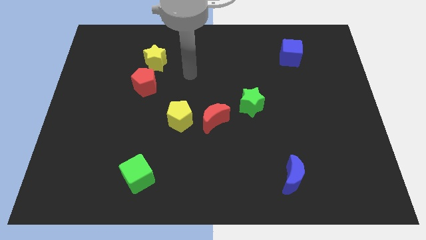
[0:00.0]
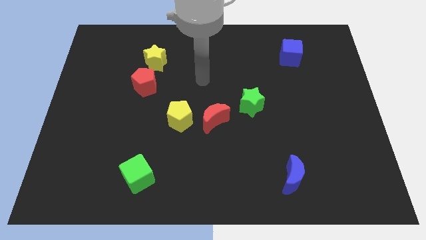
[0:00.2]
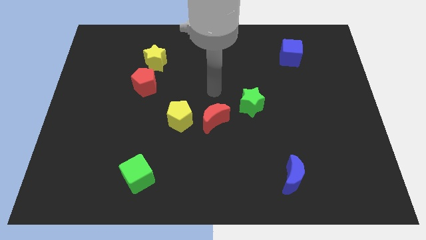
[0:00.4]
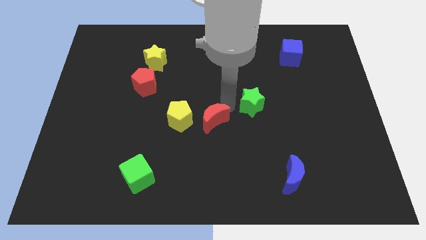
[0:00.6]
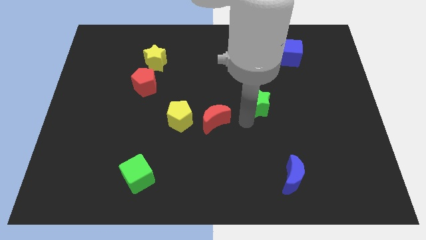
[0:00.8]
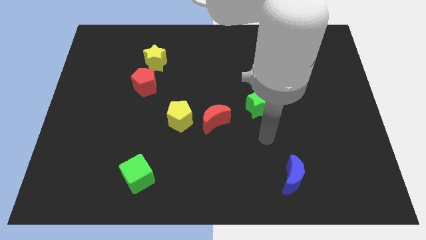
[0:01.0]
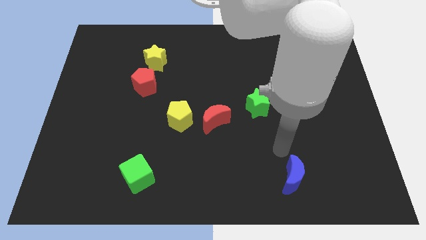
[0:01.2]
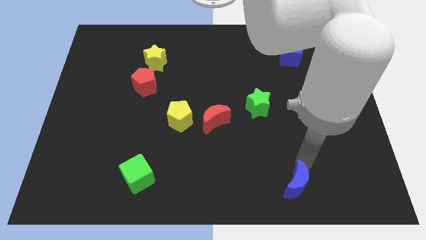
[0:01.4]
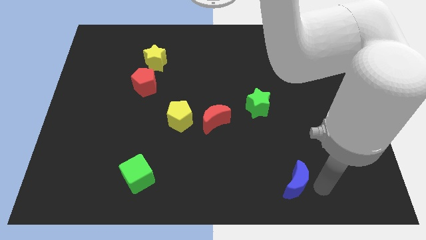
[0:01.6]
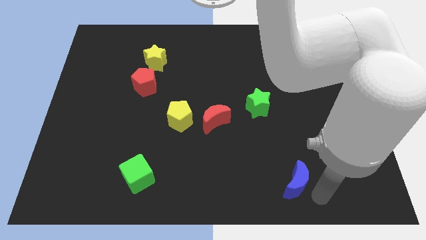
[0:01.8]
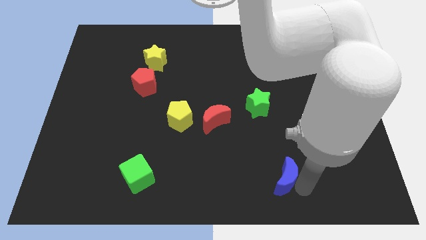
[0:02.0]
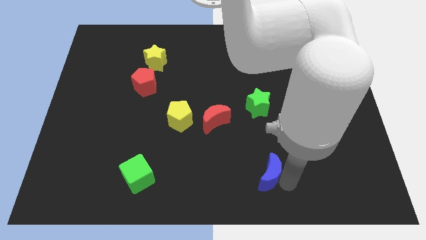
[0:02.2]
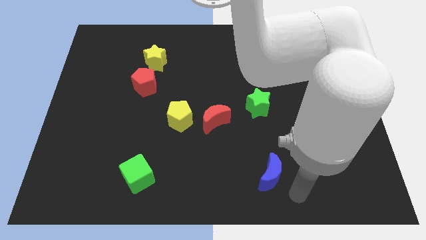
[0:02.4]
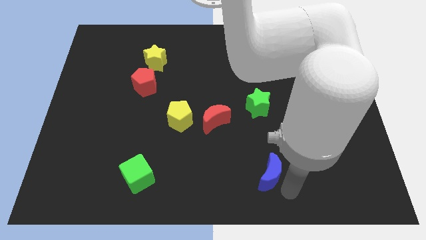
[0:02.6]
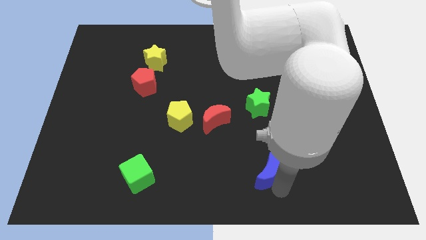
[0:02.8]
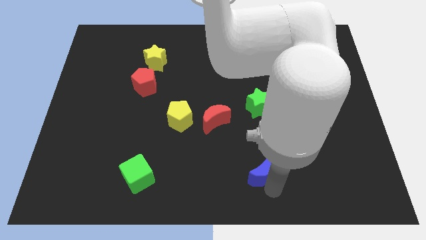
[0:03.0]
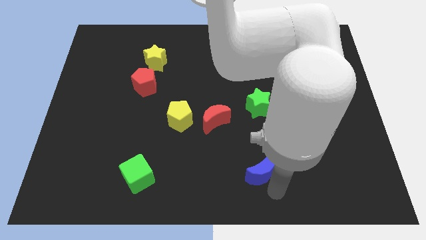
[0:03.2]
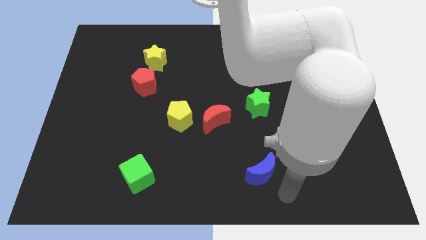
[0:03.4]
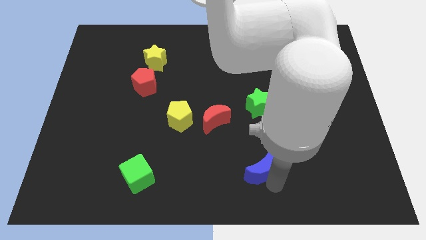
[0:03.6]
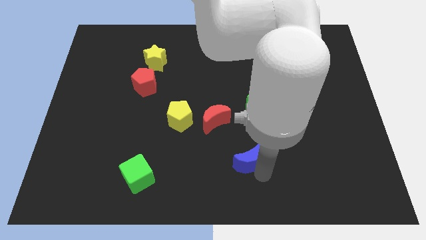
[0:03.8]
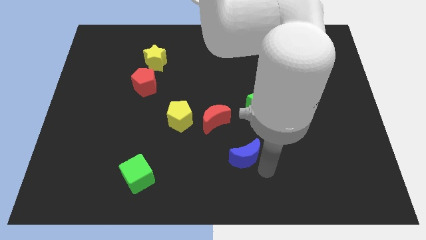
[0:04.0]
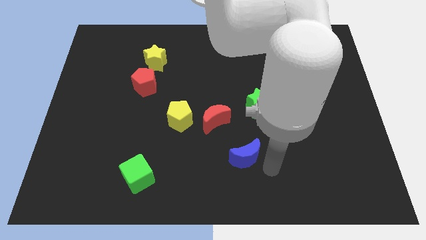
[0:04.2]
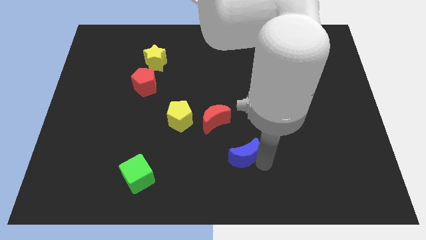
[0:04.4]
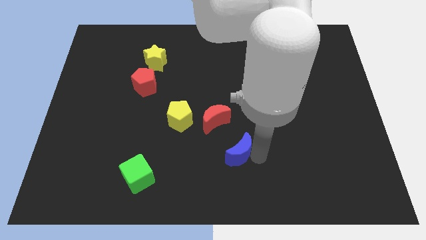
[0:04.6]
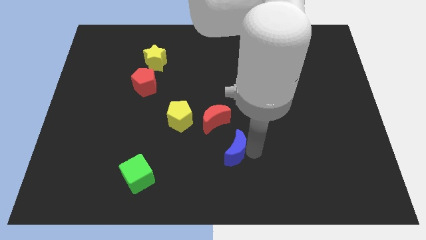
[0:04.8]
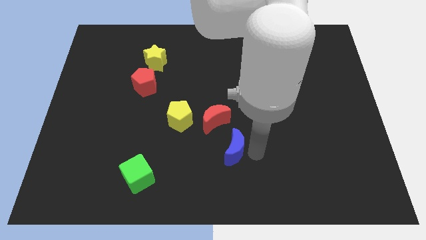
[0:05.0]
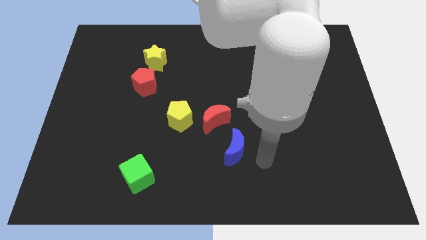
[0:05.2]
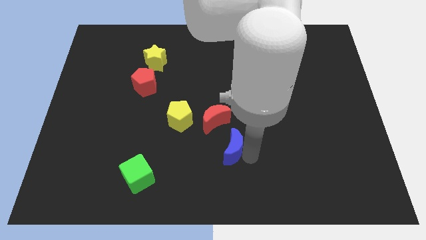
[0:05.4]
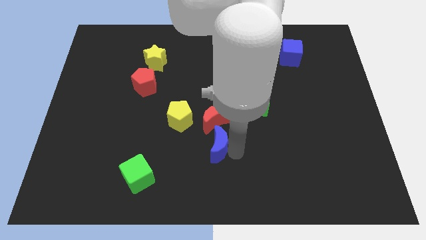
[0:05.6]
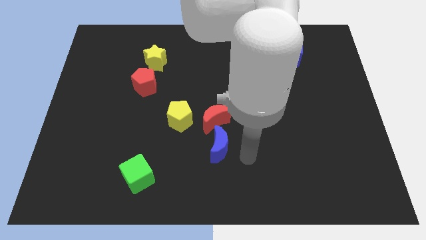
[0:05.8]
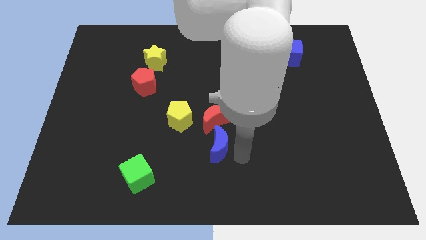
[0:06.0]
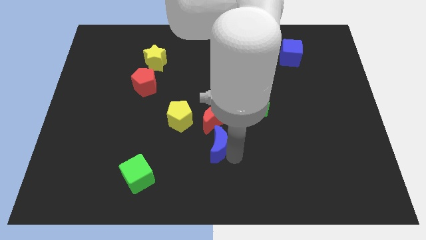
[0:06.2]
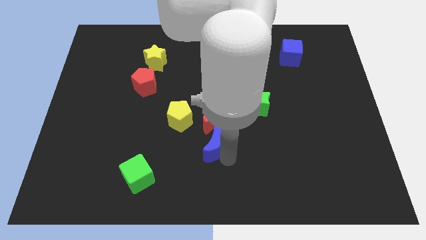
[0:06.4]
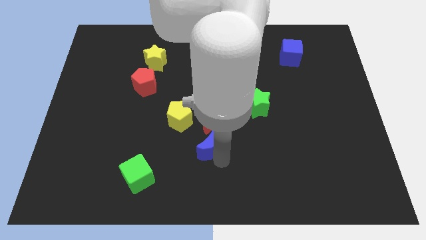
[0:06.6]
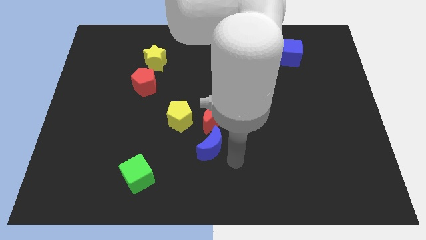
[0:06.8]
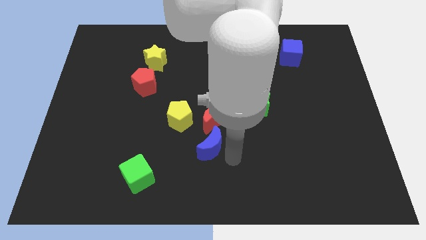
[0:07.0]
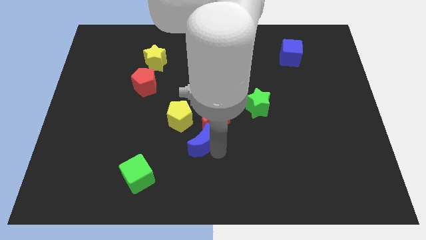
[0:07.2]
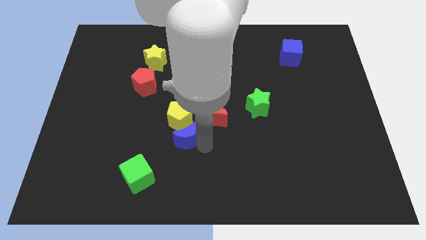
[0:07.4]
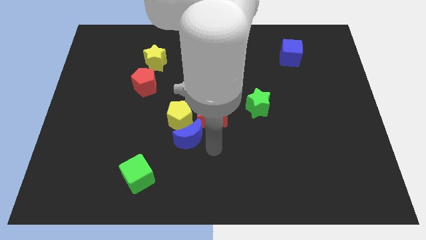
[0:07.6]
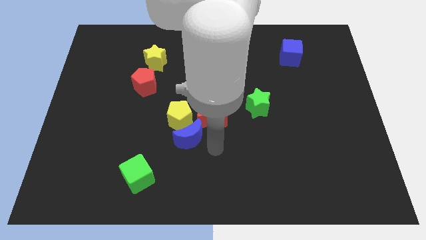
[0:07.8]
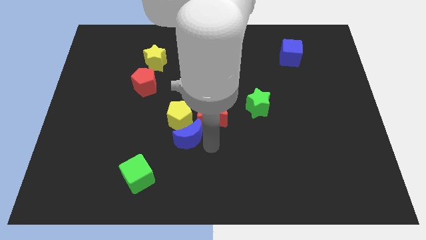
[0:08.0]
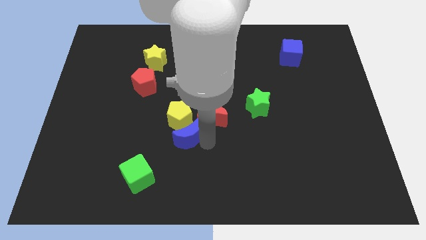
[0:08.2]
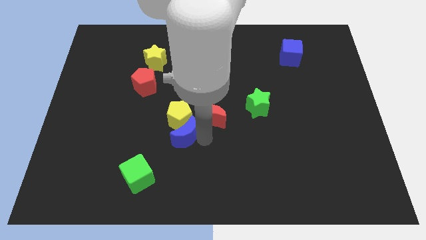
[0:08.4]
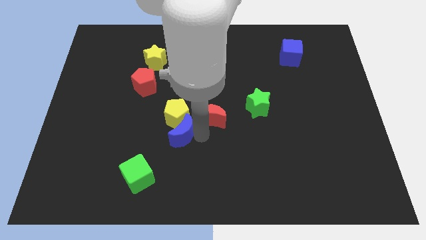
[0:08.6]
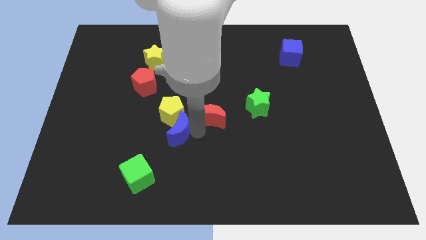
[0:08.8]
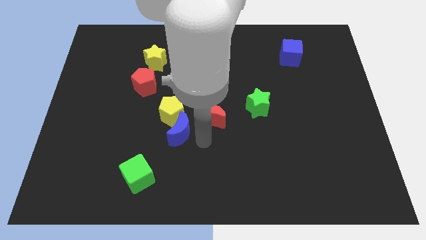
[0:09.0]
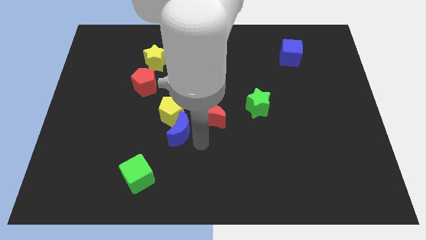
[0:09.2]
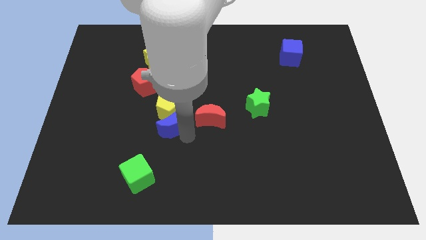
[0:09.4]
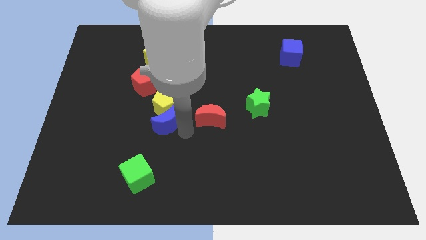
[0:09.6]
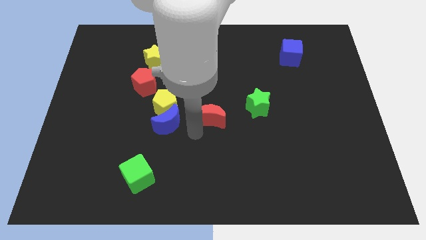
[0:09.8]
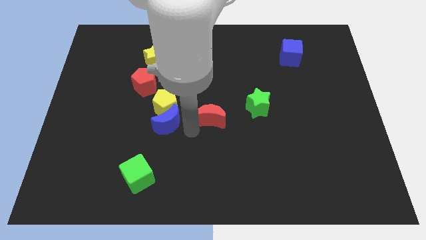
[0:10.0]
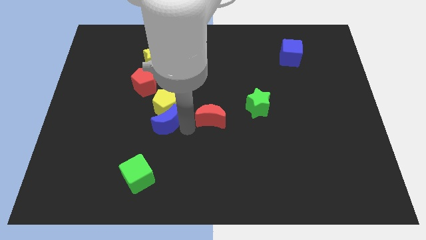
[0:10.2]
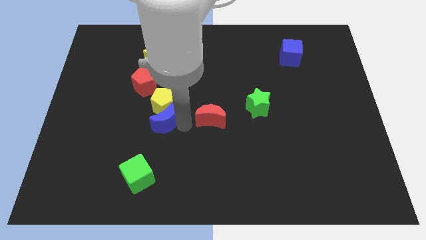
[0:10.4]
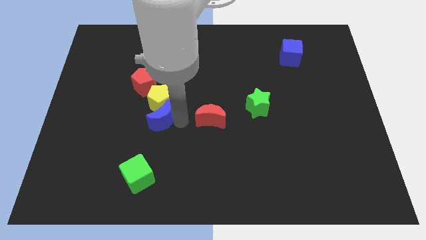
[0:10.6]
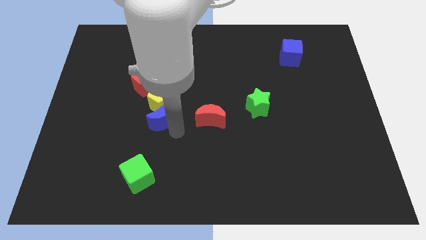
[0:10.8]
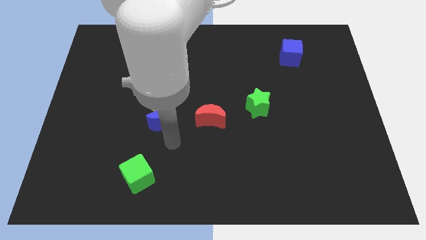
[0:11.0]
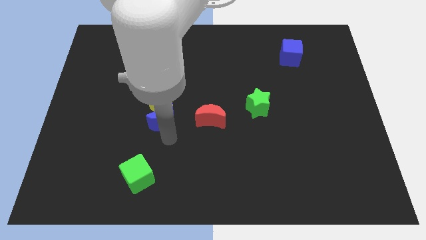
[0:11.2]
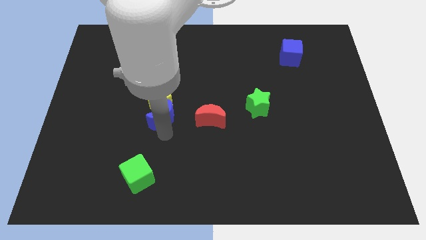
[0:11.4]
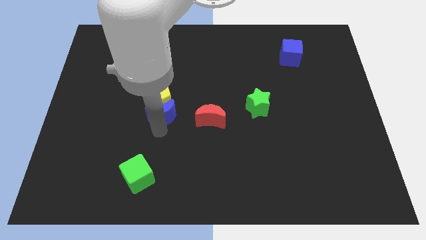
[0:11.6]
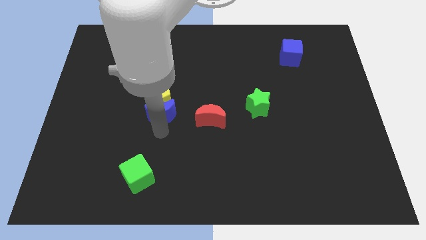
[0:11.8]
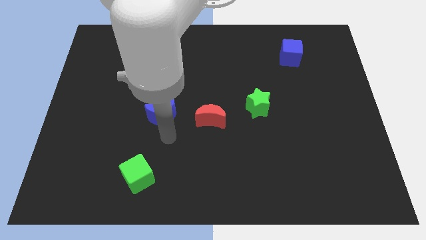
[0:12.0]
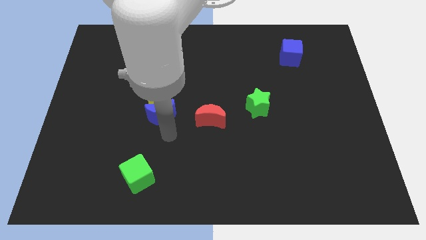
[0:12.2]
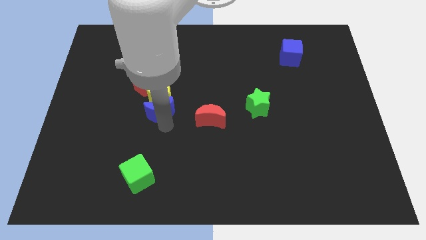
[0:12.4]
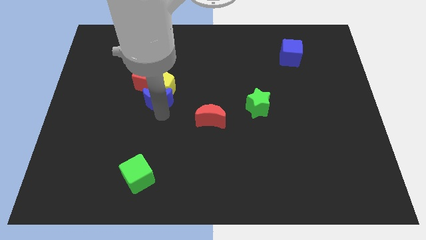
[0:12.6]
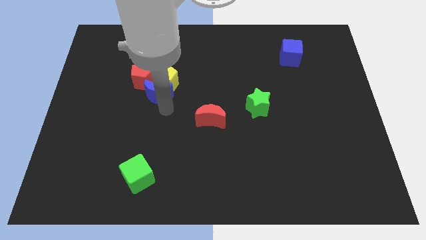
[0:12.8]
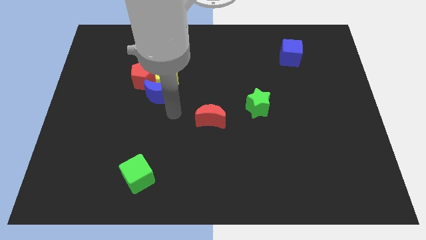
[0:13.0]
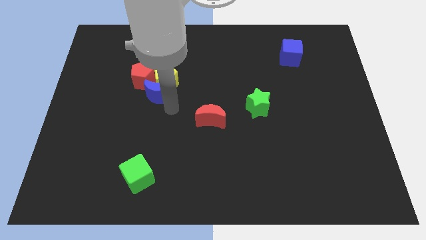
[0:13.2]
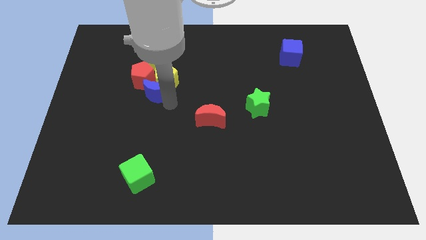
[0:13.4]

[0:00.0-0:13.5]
put the blue moon next to the red pentagon

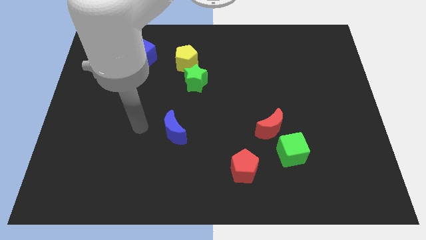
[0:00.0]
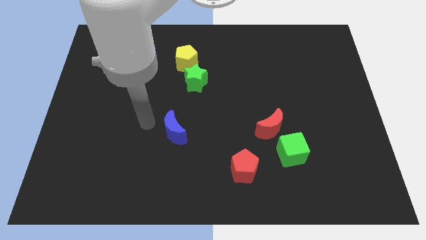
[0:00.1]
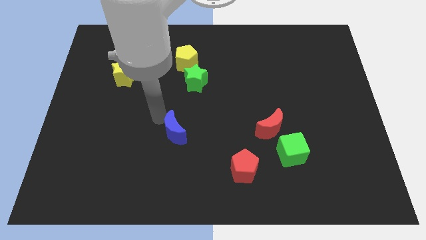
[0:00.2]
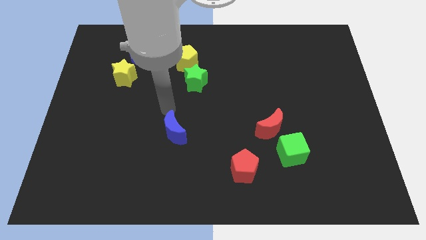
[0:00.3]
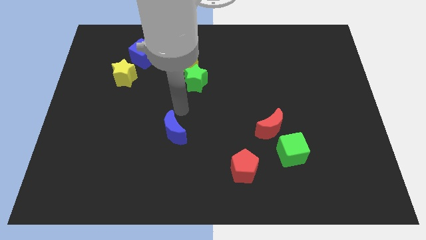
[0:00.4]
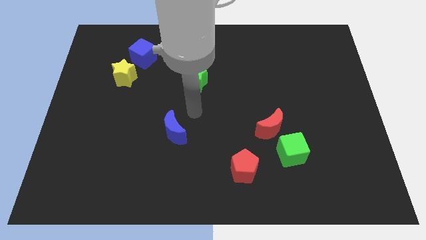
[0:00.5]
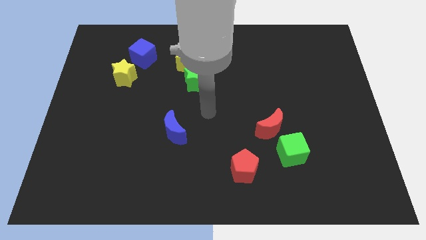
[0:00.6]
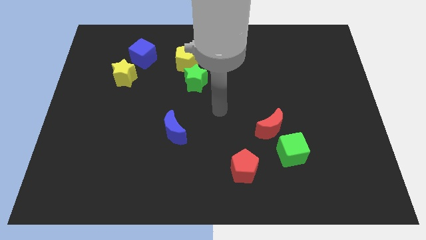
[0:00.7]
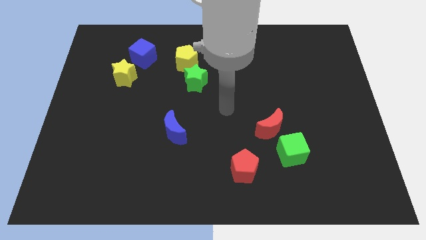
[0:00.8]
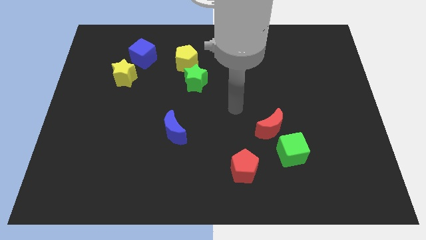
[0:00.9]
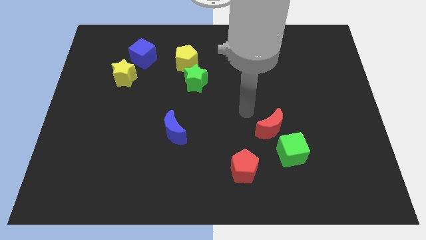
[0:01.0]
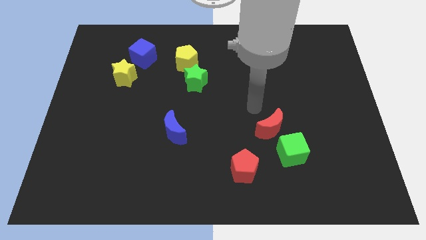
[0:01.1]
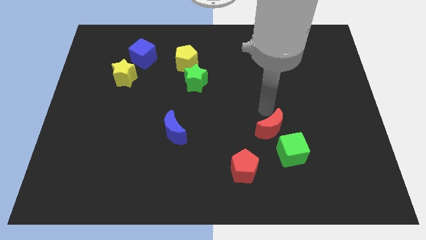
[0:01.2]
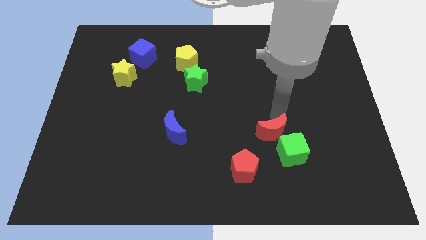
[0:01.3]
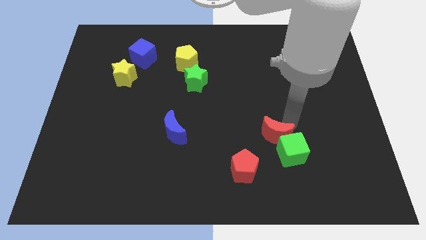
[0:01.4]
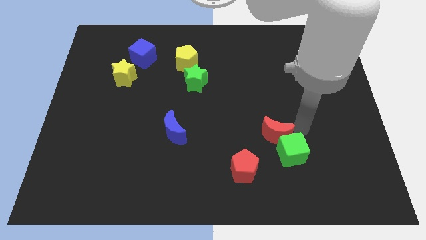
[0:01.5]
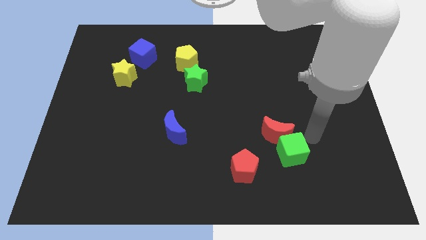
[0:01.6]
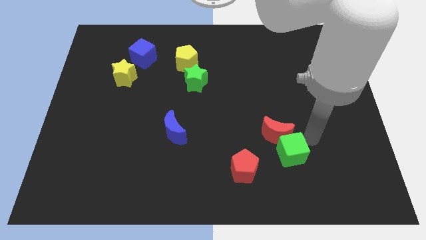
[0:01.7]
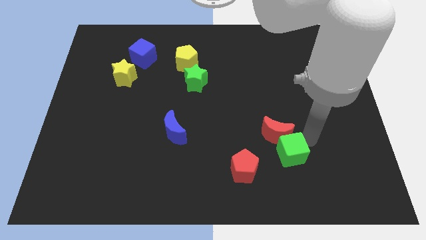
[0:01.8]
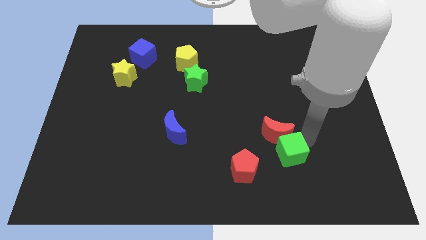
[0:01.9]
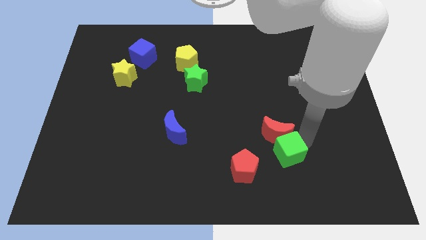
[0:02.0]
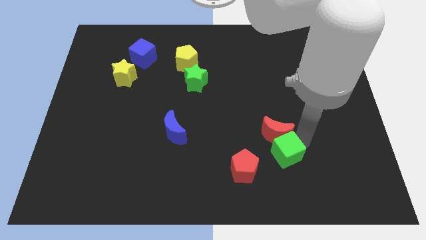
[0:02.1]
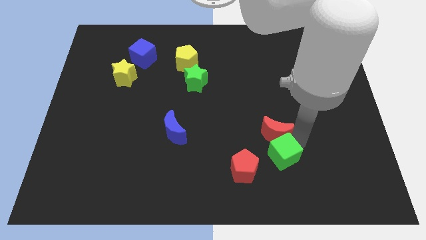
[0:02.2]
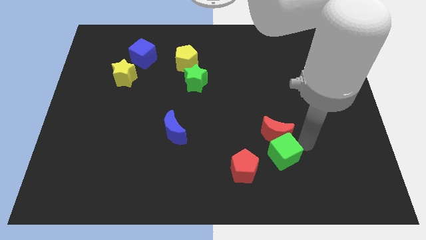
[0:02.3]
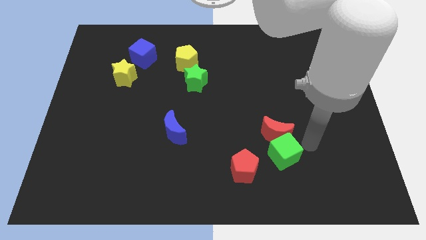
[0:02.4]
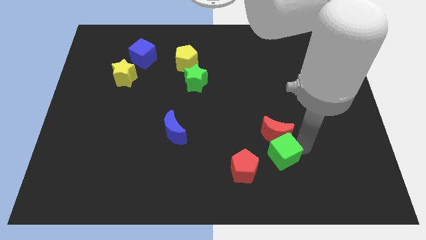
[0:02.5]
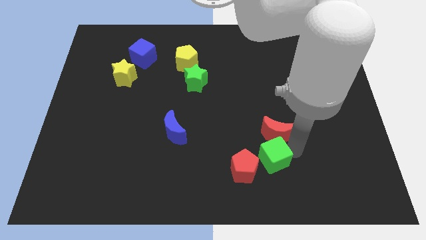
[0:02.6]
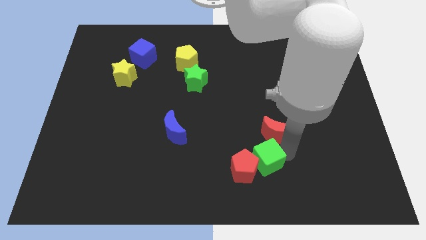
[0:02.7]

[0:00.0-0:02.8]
push the green cube close to the red pentagon
